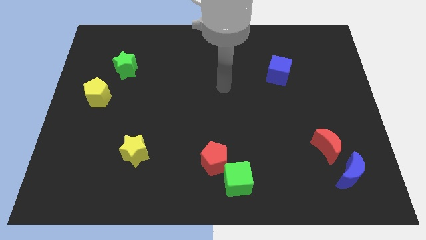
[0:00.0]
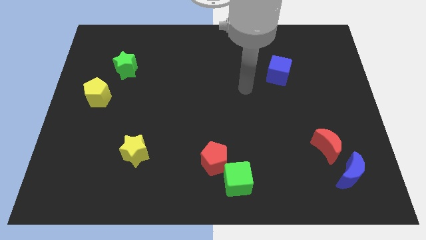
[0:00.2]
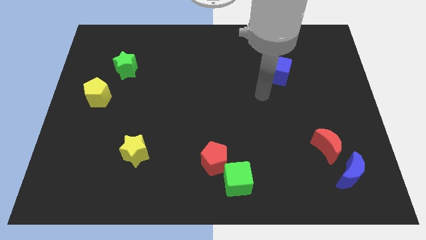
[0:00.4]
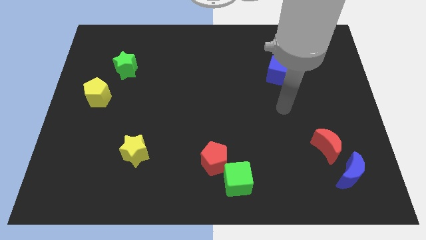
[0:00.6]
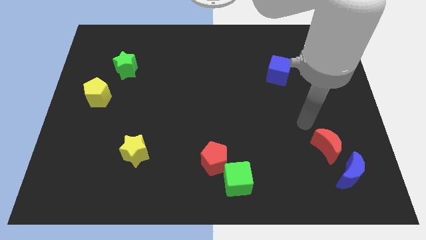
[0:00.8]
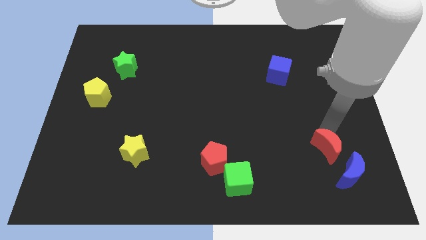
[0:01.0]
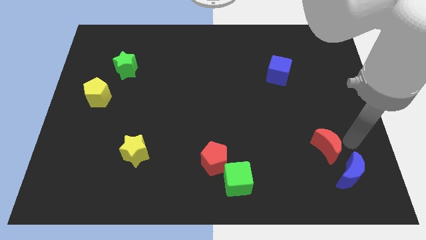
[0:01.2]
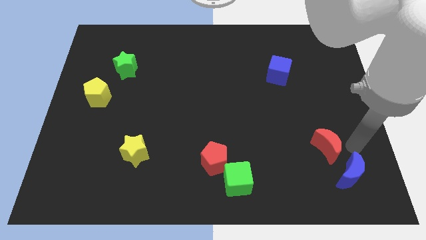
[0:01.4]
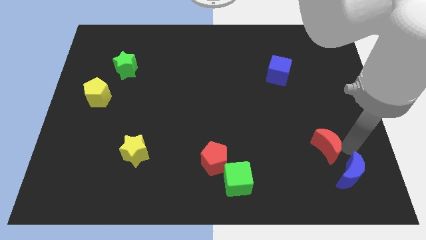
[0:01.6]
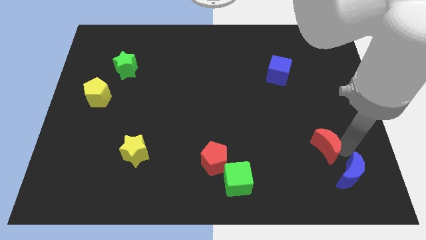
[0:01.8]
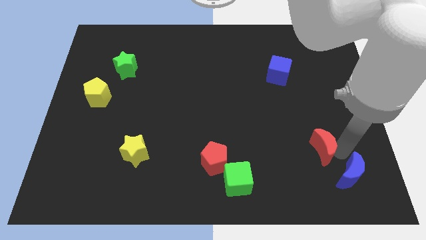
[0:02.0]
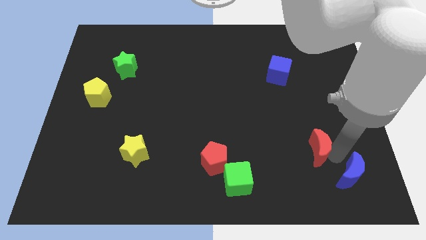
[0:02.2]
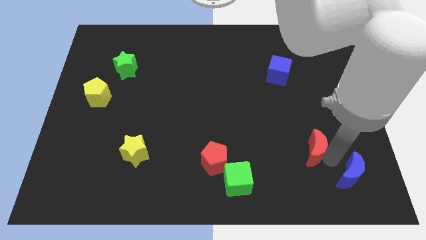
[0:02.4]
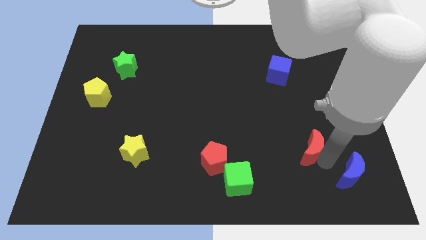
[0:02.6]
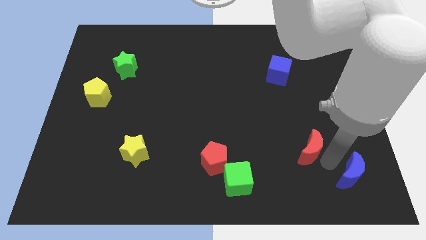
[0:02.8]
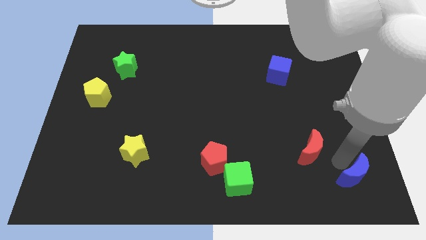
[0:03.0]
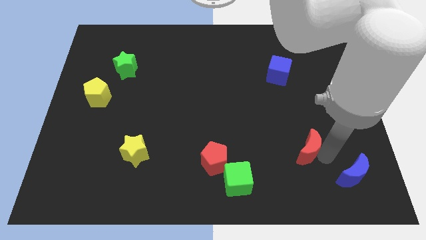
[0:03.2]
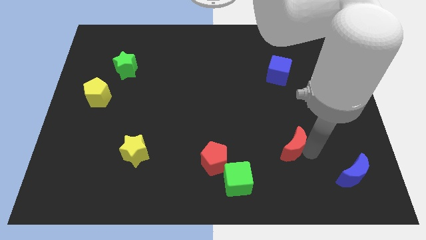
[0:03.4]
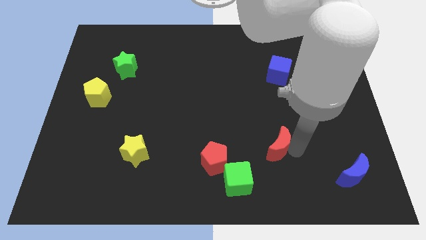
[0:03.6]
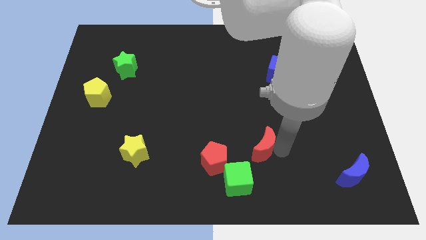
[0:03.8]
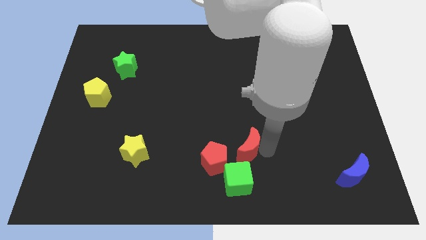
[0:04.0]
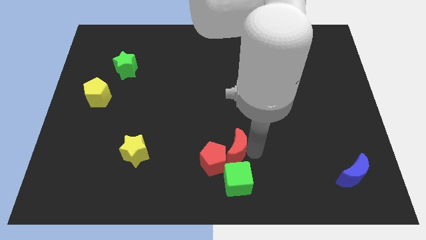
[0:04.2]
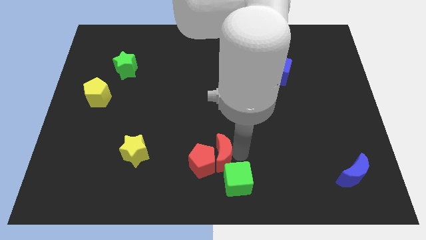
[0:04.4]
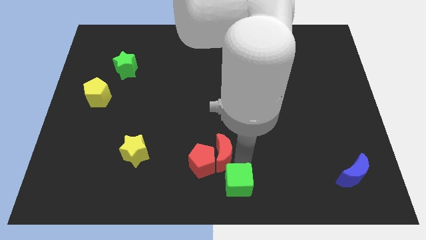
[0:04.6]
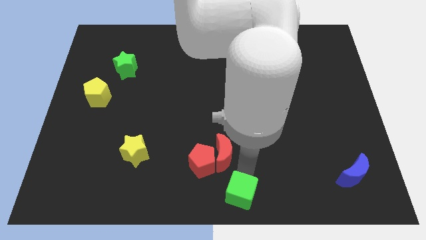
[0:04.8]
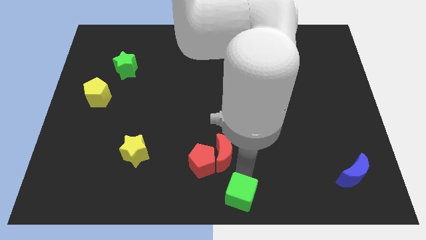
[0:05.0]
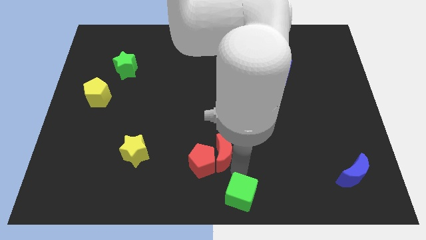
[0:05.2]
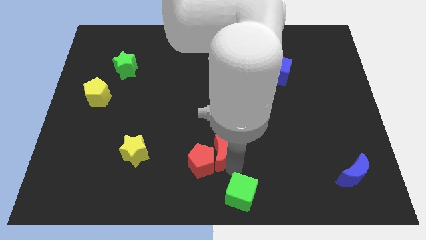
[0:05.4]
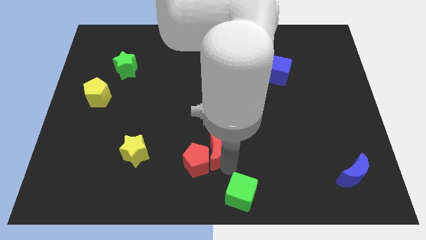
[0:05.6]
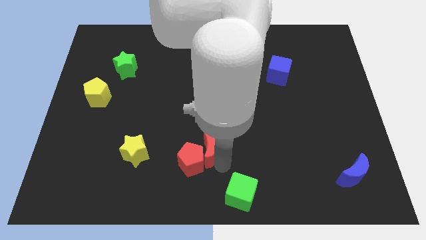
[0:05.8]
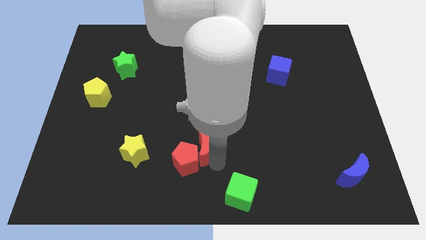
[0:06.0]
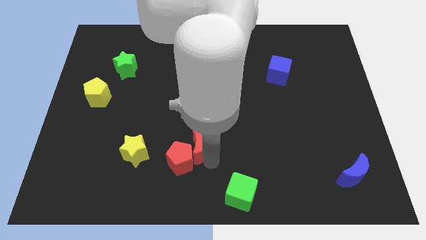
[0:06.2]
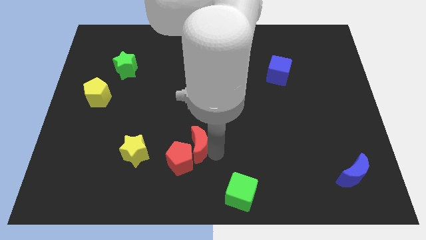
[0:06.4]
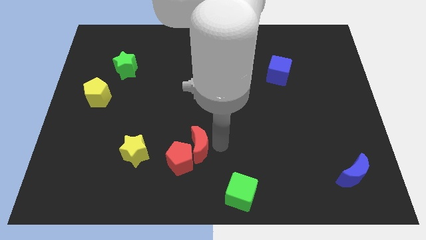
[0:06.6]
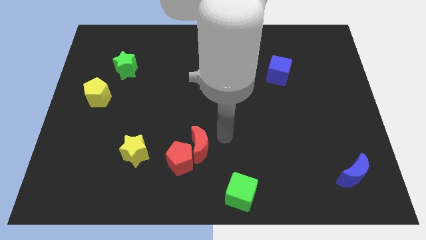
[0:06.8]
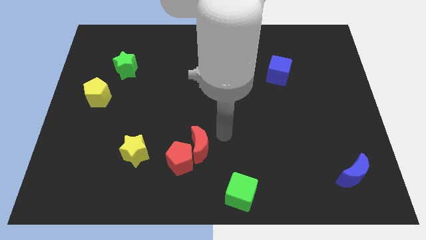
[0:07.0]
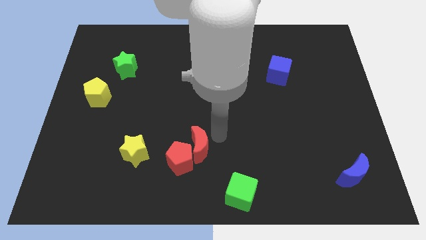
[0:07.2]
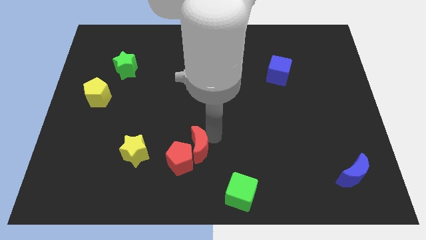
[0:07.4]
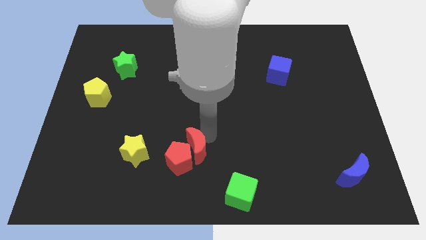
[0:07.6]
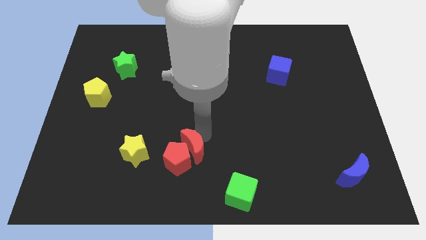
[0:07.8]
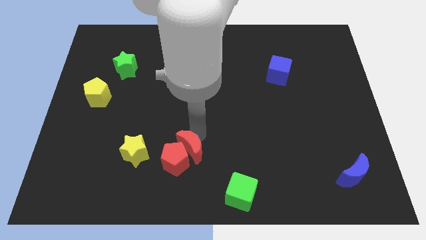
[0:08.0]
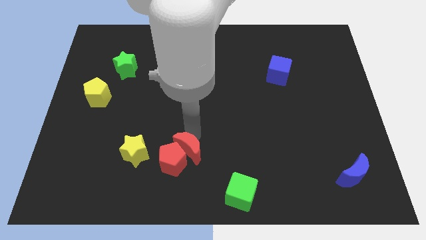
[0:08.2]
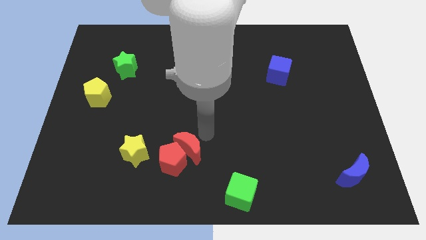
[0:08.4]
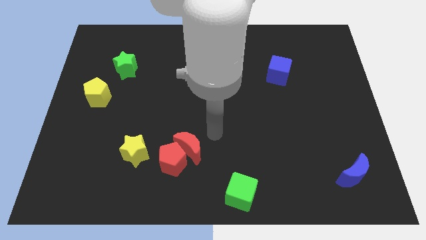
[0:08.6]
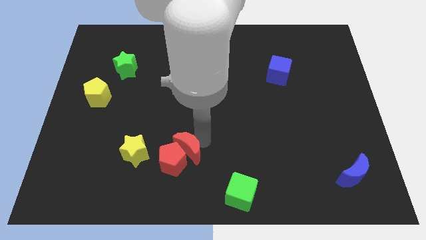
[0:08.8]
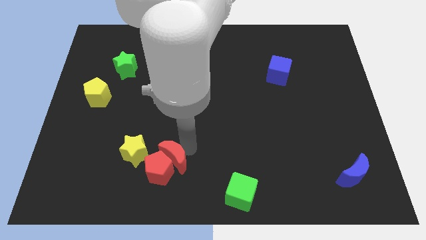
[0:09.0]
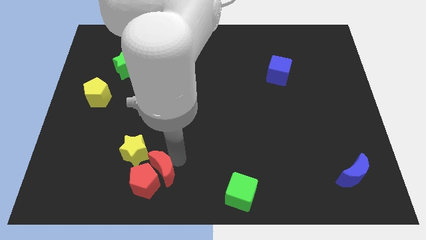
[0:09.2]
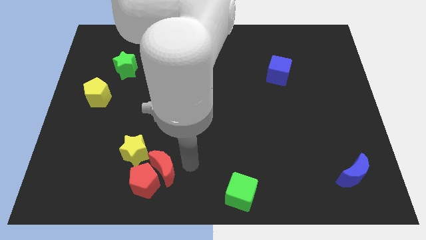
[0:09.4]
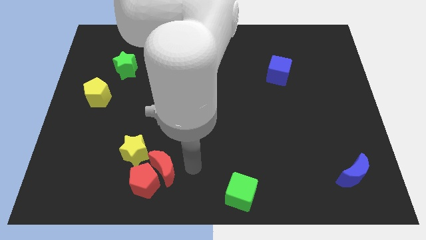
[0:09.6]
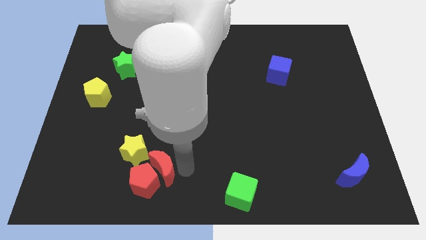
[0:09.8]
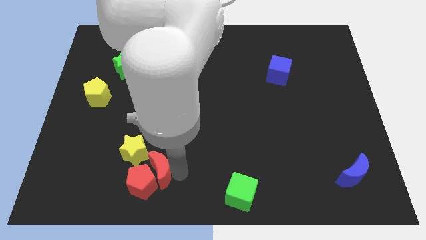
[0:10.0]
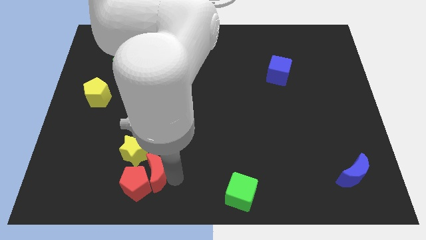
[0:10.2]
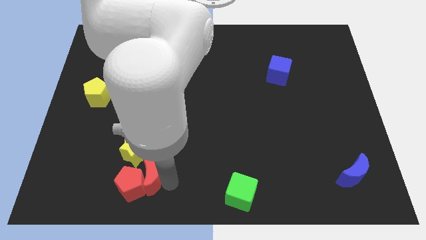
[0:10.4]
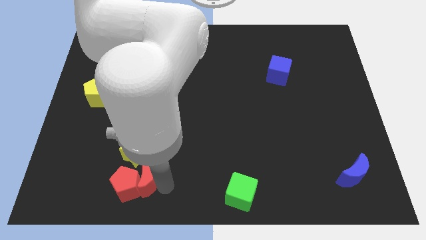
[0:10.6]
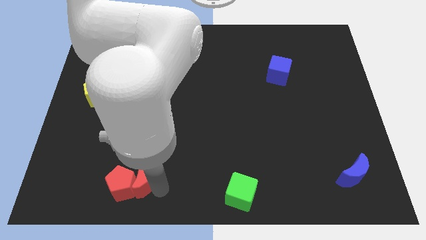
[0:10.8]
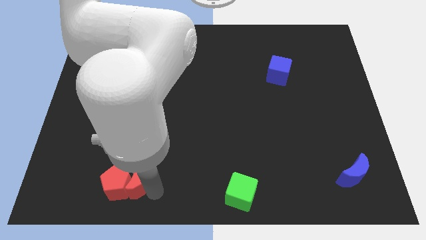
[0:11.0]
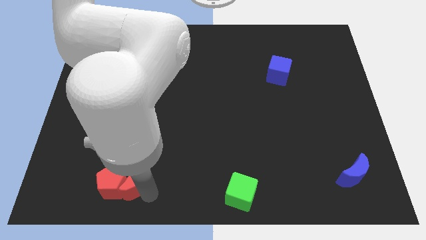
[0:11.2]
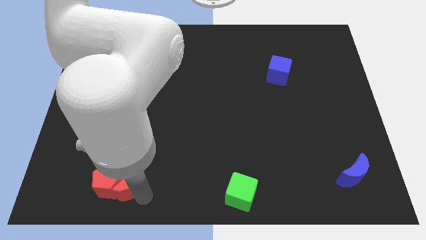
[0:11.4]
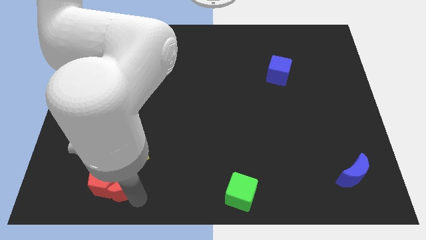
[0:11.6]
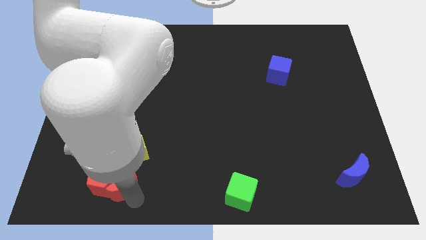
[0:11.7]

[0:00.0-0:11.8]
push the red moon to the bottom left side of the yellow star

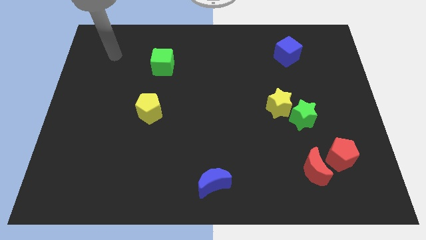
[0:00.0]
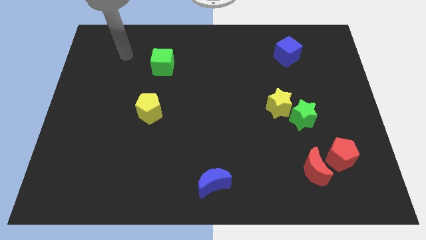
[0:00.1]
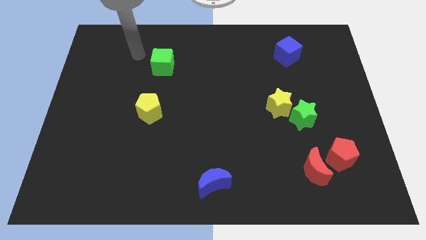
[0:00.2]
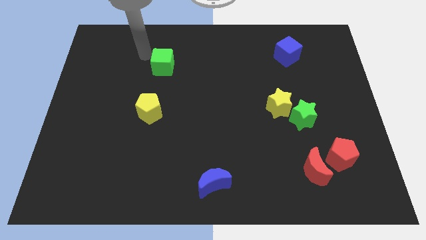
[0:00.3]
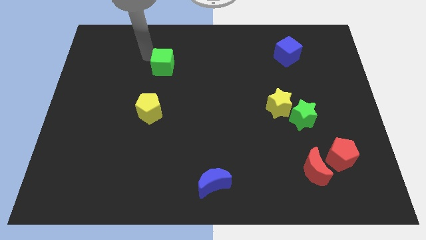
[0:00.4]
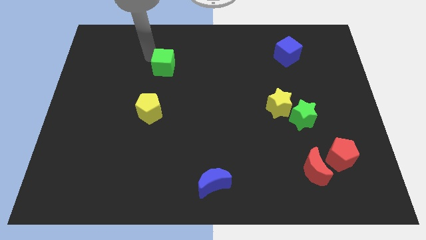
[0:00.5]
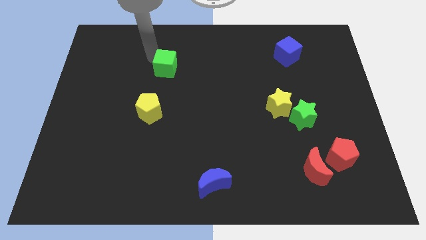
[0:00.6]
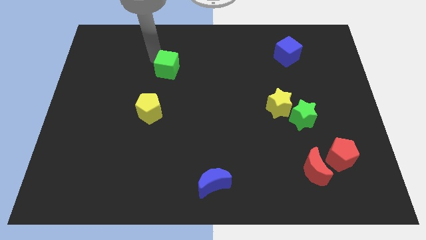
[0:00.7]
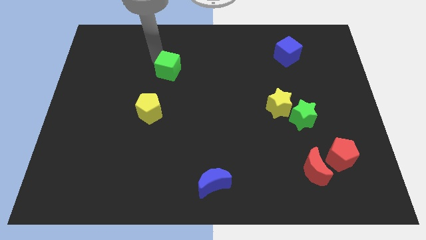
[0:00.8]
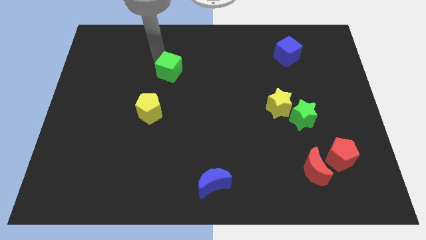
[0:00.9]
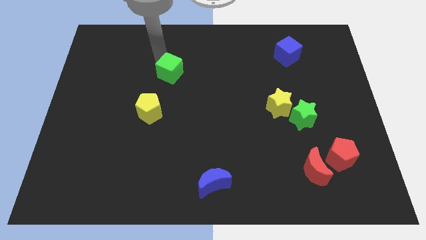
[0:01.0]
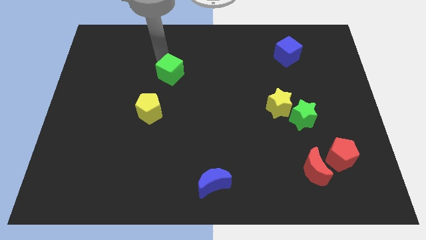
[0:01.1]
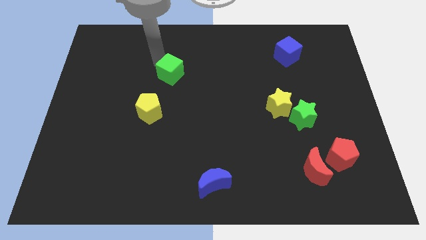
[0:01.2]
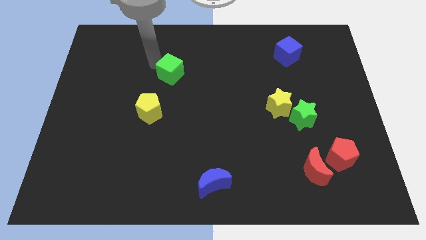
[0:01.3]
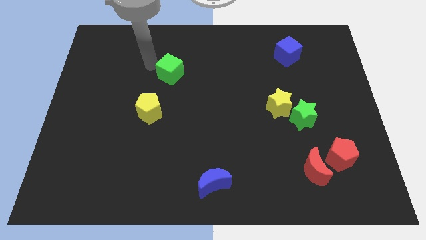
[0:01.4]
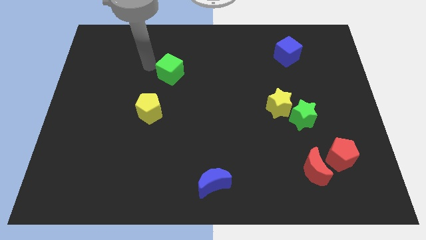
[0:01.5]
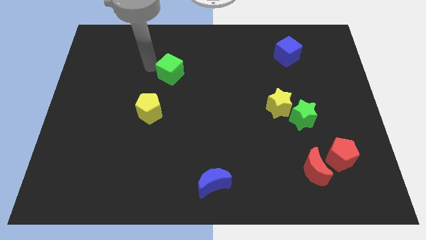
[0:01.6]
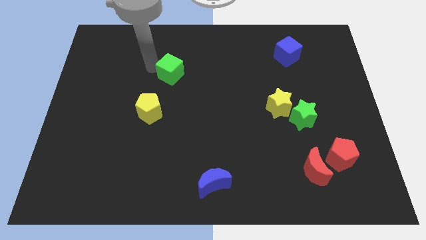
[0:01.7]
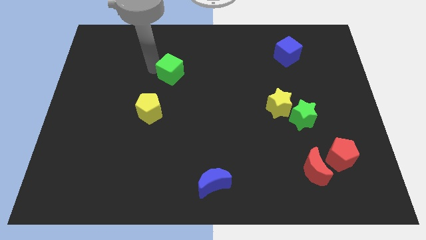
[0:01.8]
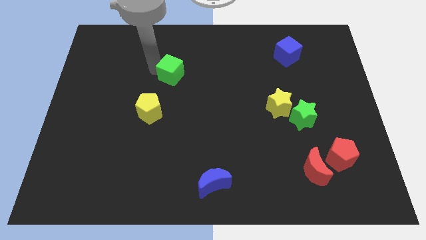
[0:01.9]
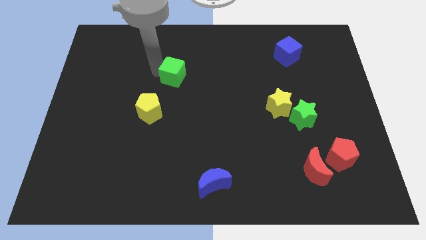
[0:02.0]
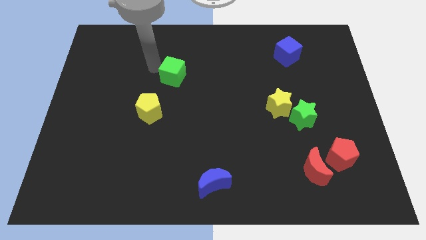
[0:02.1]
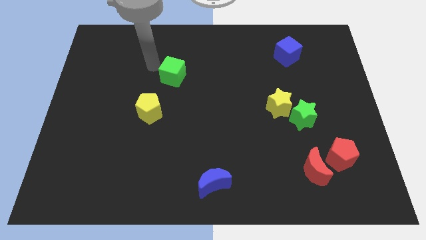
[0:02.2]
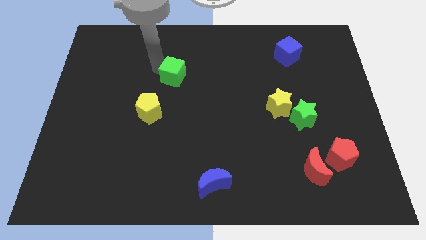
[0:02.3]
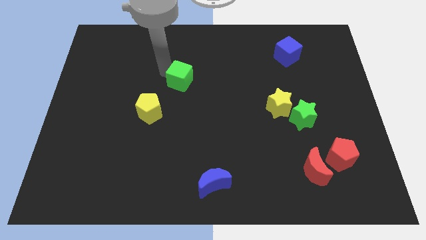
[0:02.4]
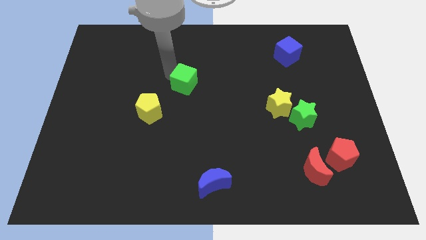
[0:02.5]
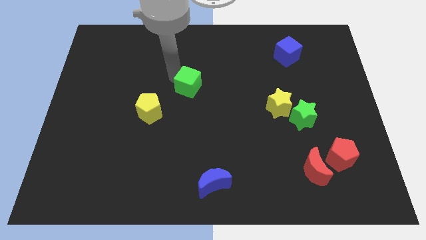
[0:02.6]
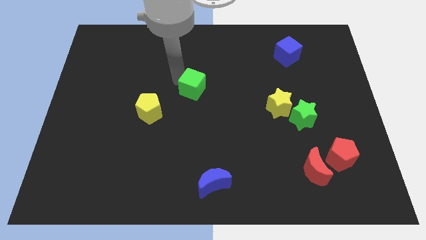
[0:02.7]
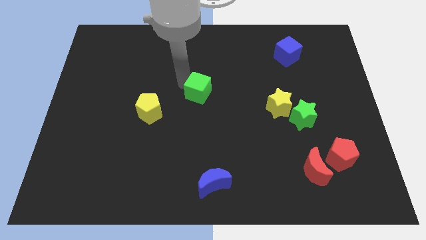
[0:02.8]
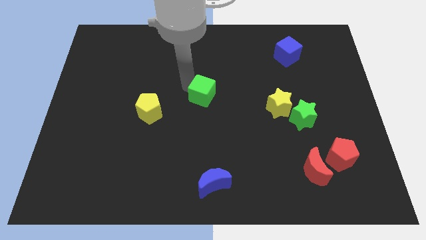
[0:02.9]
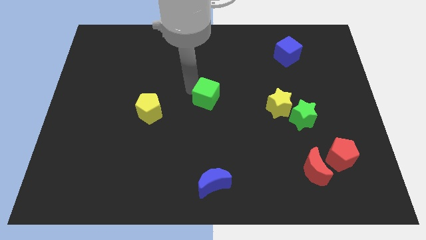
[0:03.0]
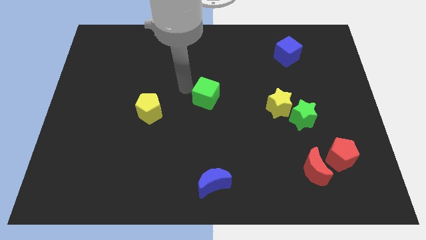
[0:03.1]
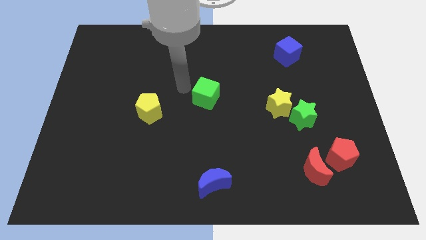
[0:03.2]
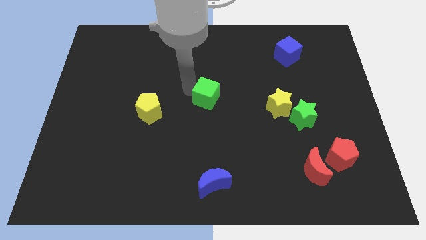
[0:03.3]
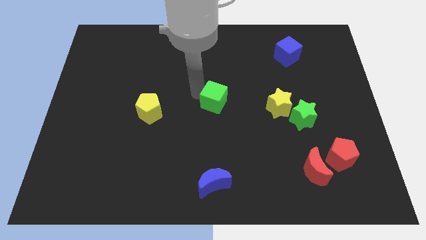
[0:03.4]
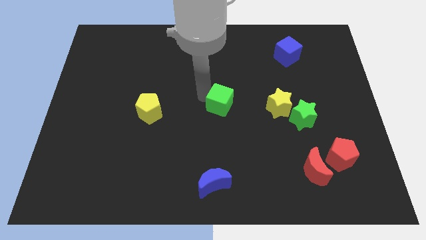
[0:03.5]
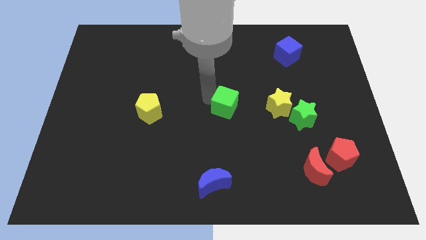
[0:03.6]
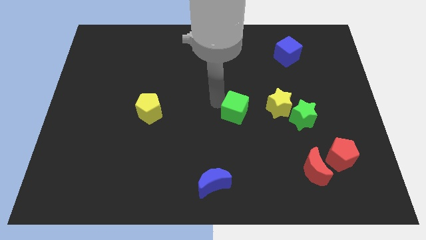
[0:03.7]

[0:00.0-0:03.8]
push the green cube to the left of the green star
